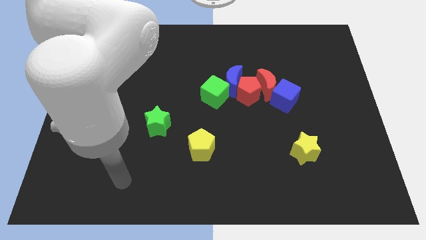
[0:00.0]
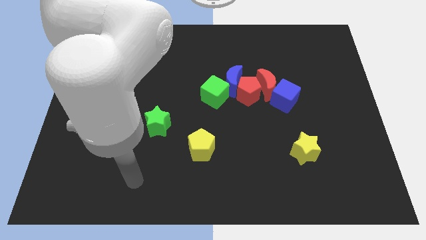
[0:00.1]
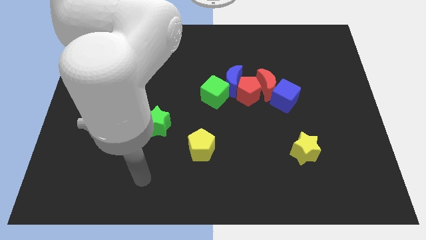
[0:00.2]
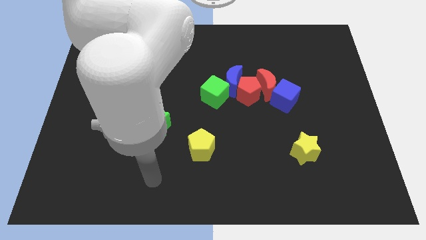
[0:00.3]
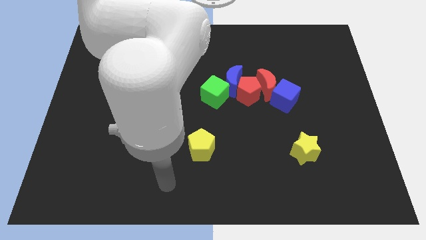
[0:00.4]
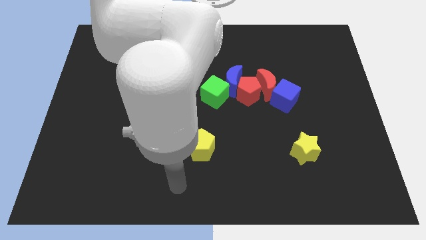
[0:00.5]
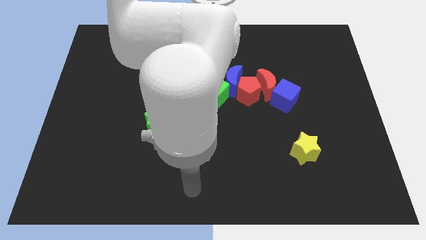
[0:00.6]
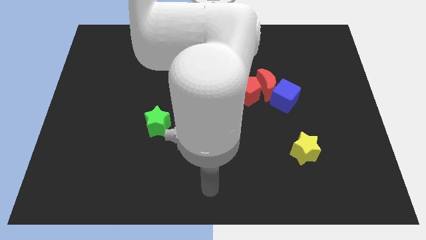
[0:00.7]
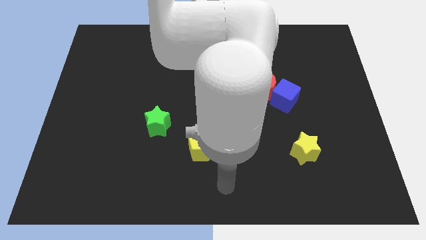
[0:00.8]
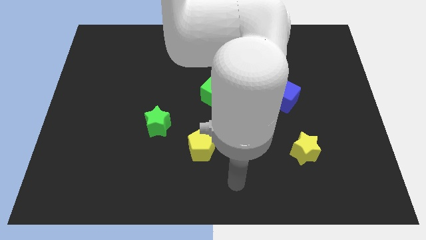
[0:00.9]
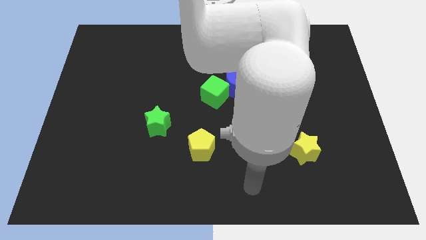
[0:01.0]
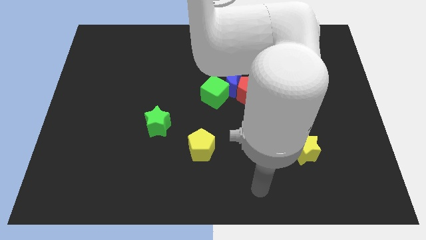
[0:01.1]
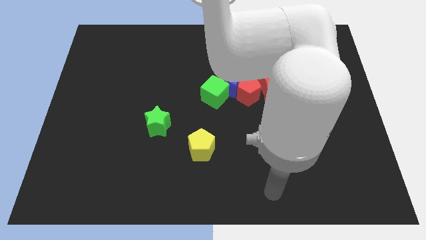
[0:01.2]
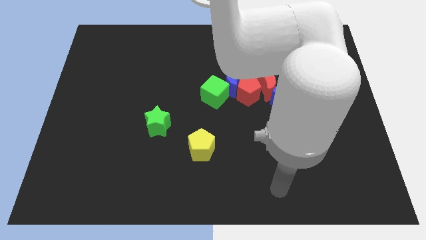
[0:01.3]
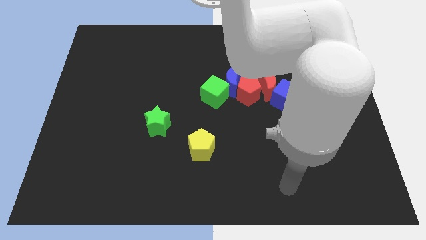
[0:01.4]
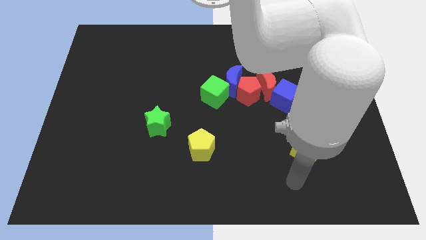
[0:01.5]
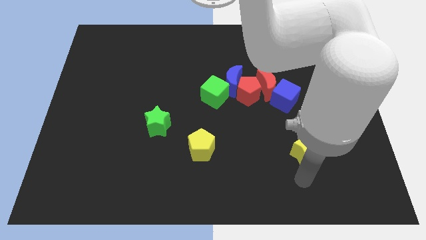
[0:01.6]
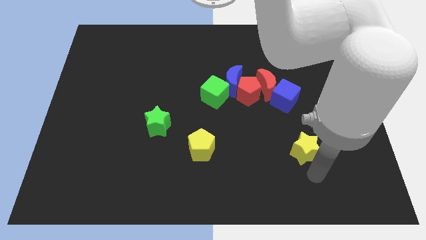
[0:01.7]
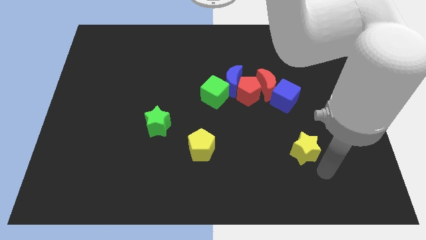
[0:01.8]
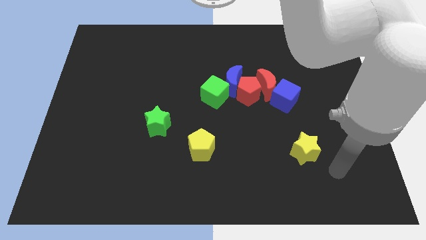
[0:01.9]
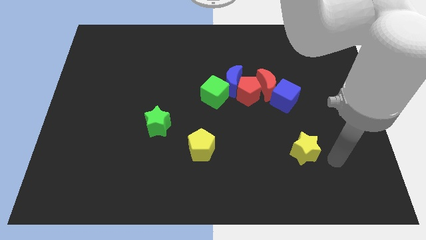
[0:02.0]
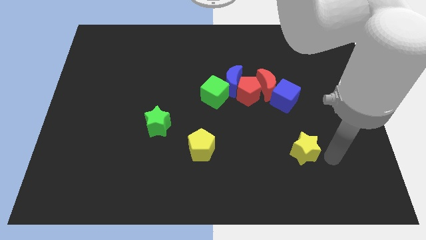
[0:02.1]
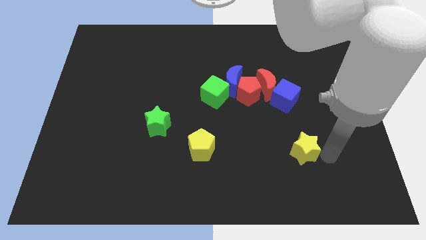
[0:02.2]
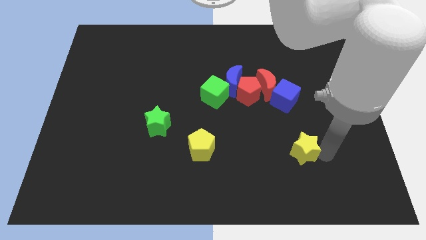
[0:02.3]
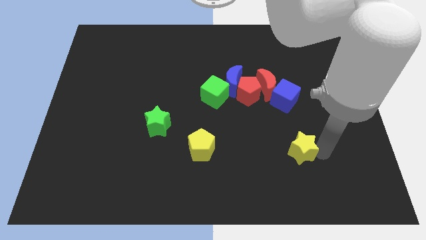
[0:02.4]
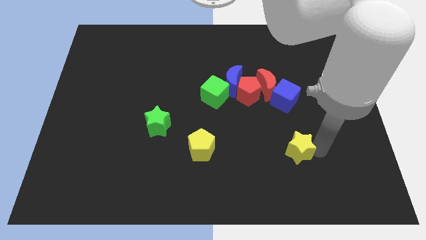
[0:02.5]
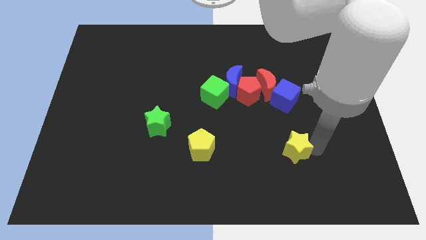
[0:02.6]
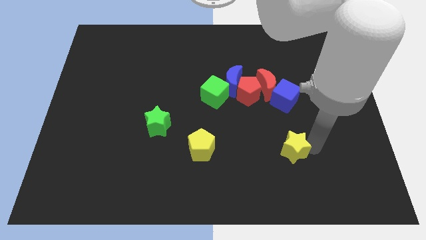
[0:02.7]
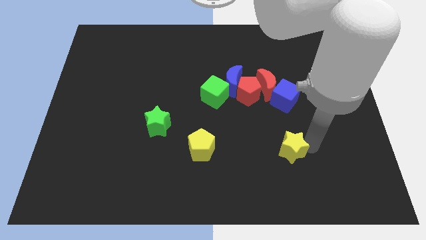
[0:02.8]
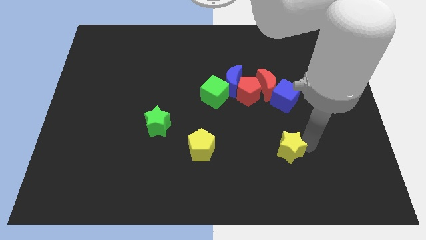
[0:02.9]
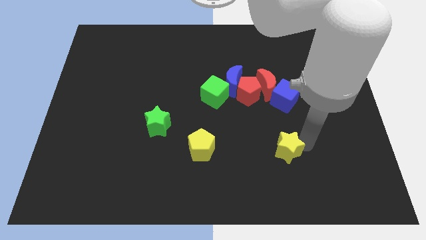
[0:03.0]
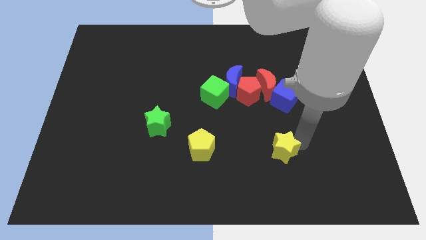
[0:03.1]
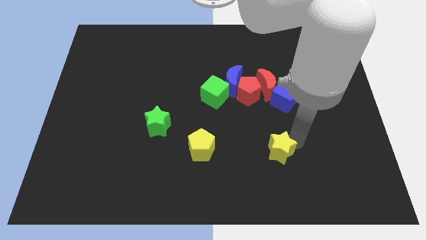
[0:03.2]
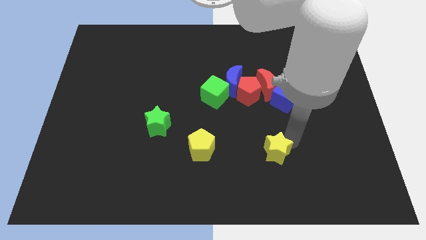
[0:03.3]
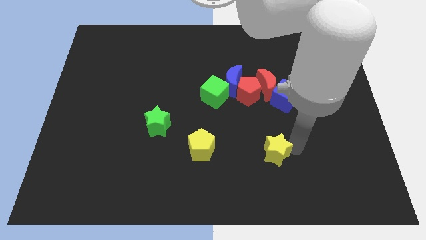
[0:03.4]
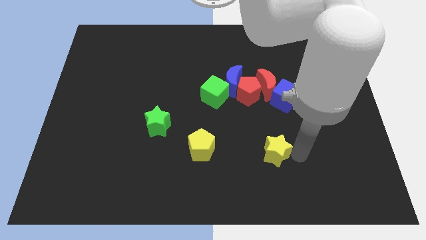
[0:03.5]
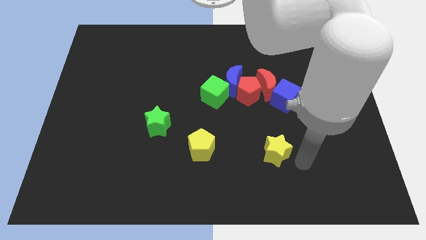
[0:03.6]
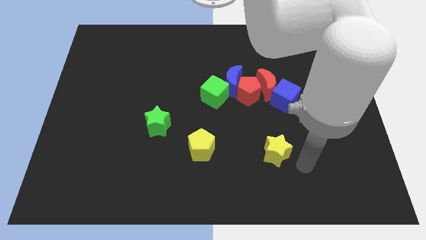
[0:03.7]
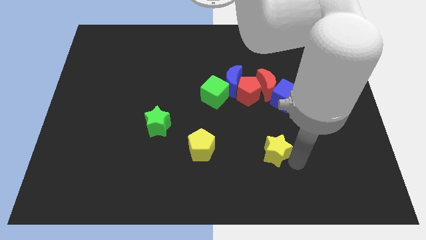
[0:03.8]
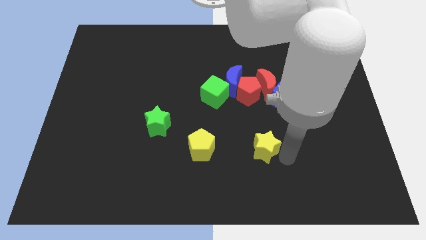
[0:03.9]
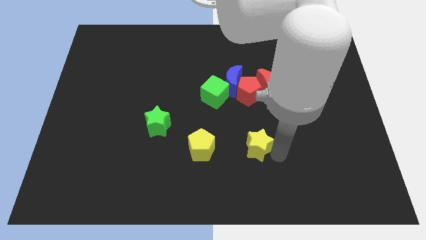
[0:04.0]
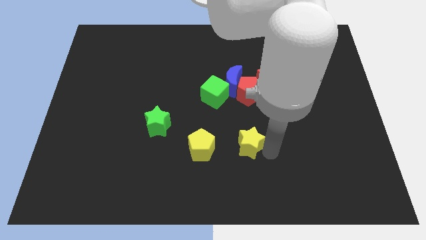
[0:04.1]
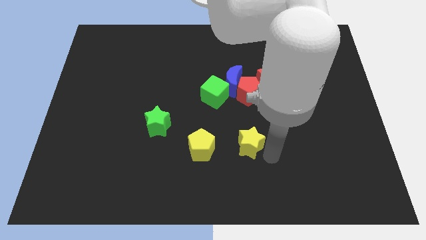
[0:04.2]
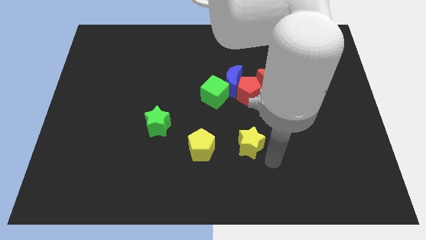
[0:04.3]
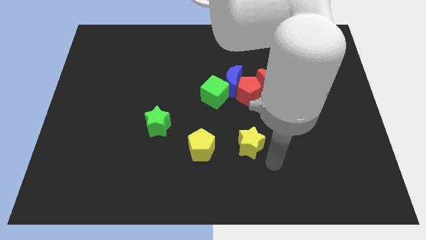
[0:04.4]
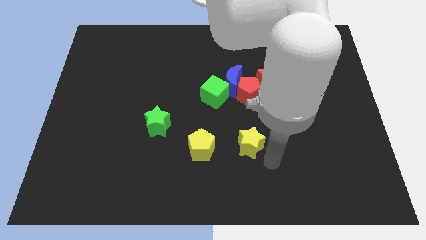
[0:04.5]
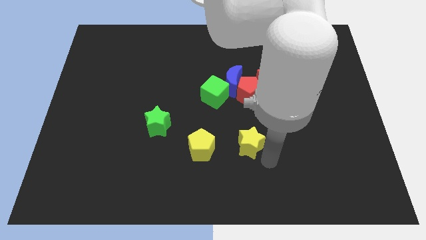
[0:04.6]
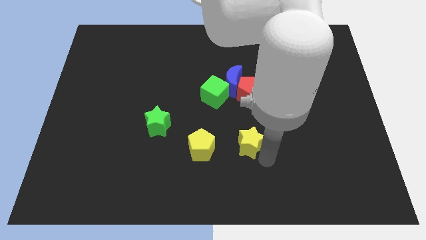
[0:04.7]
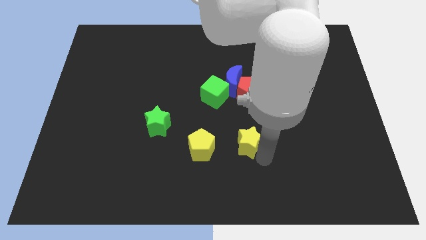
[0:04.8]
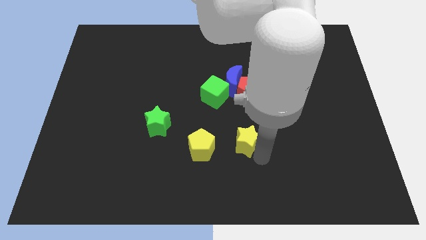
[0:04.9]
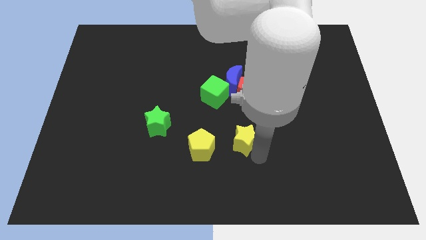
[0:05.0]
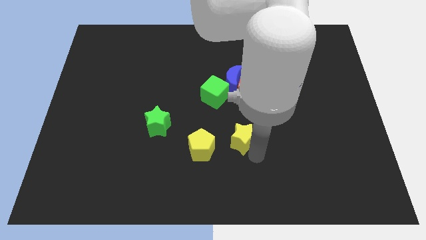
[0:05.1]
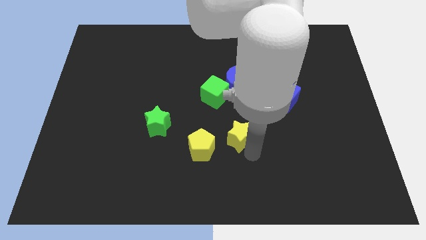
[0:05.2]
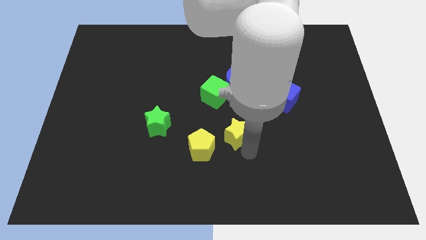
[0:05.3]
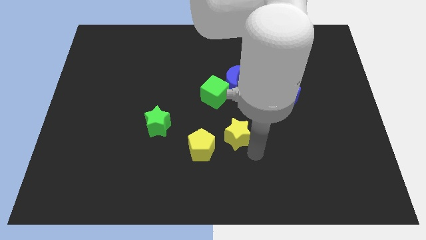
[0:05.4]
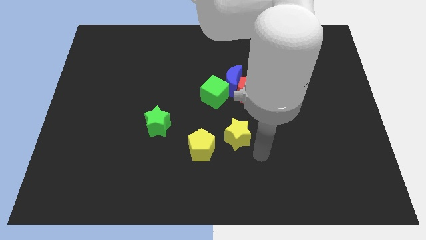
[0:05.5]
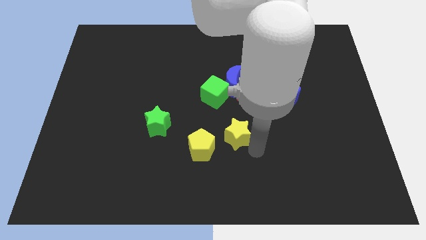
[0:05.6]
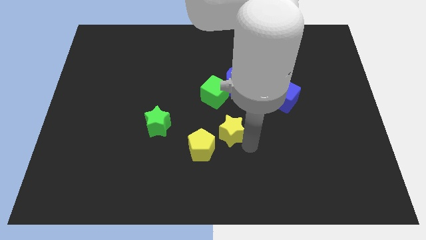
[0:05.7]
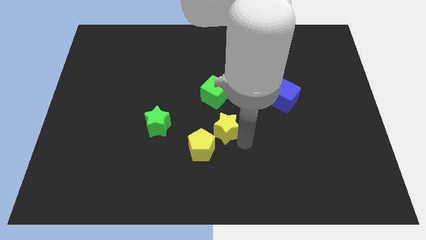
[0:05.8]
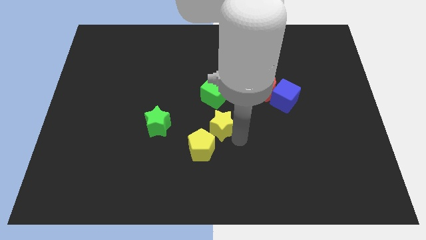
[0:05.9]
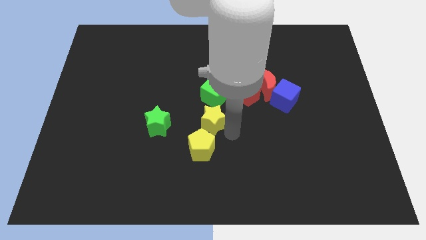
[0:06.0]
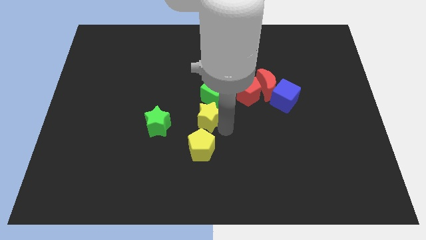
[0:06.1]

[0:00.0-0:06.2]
push the yellow star to the bottom left of the green cube

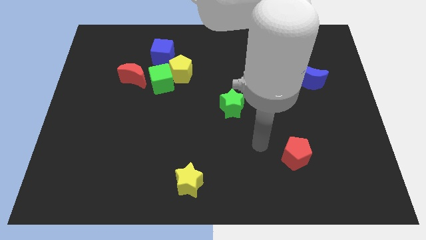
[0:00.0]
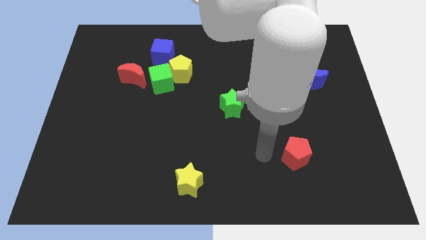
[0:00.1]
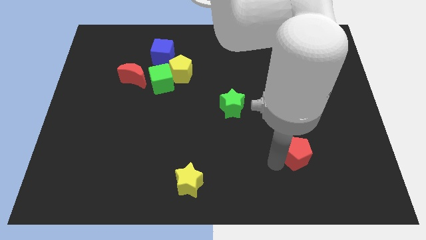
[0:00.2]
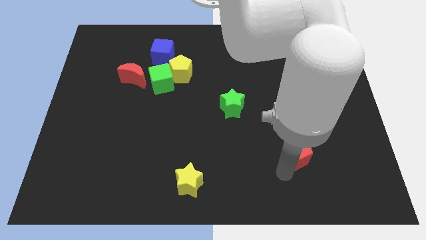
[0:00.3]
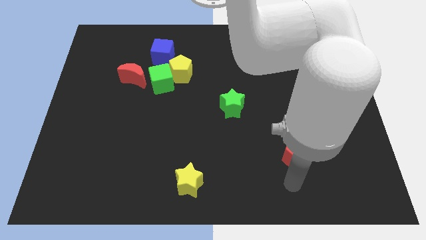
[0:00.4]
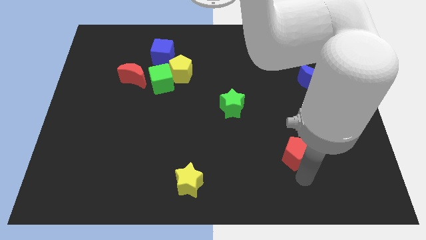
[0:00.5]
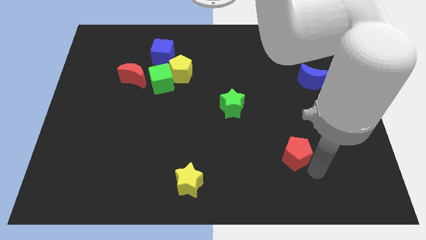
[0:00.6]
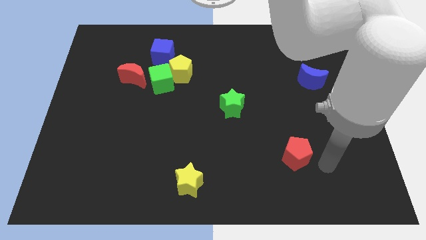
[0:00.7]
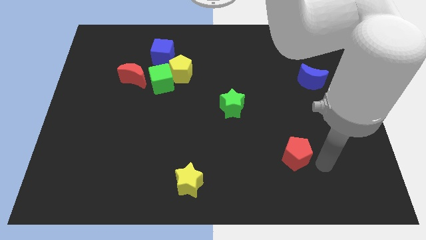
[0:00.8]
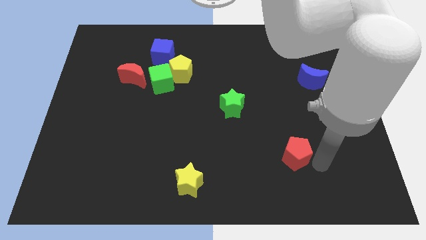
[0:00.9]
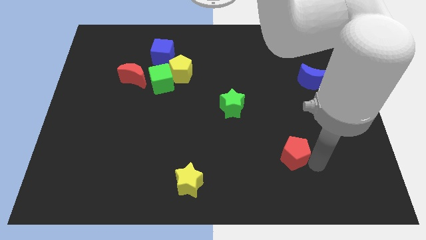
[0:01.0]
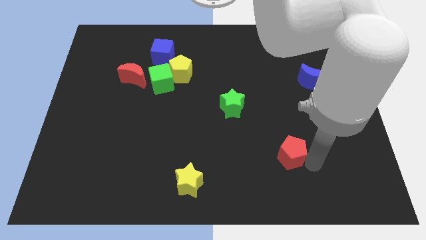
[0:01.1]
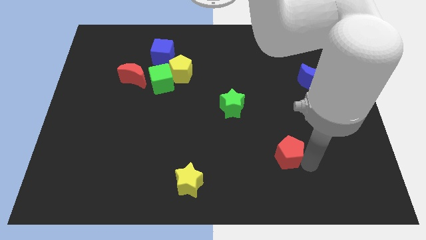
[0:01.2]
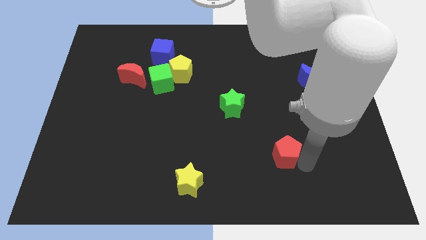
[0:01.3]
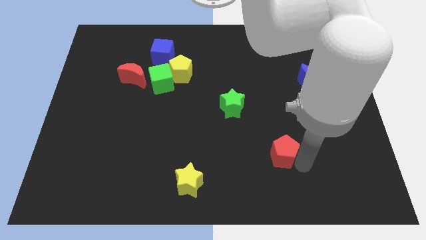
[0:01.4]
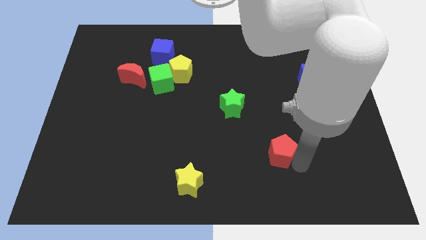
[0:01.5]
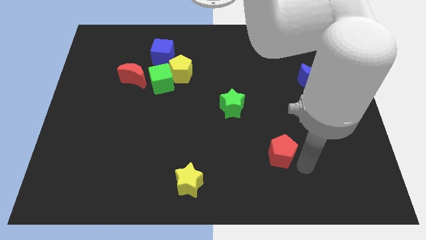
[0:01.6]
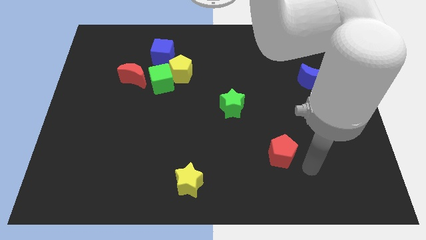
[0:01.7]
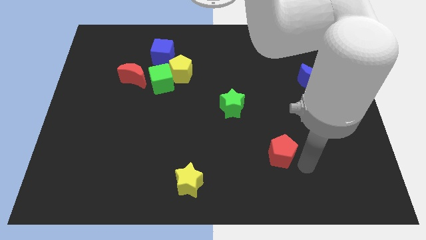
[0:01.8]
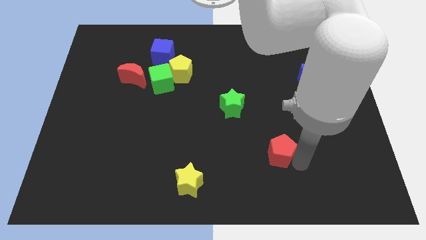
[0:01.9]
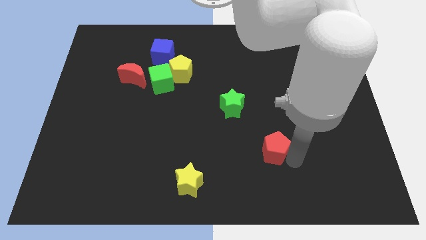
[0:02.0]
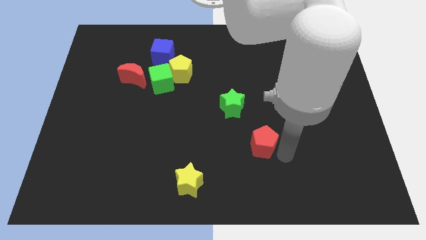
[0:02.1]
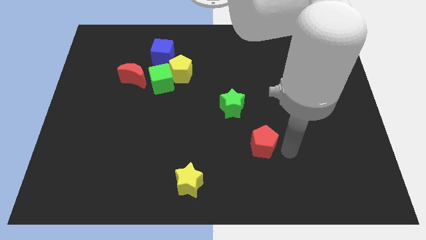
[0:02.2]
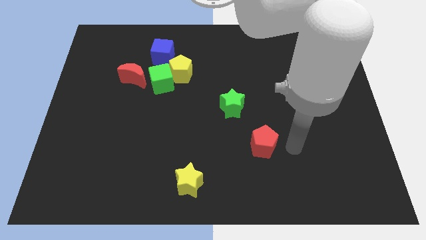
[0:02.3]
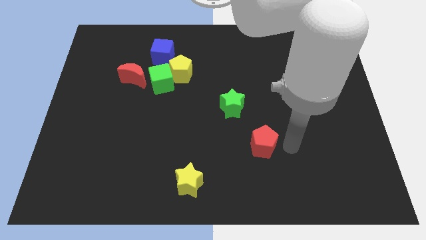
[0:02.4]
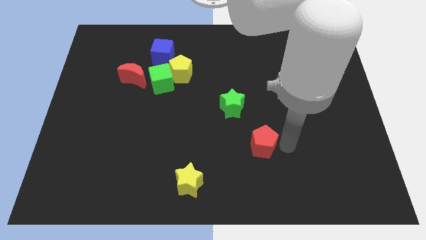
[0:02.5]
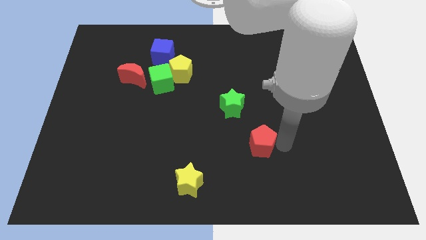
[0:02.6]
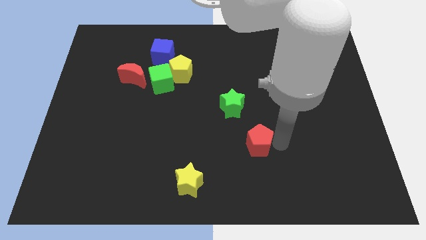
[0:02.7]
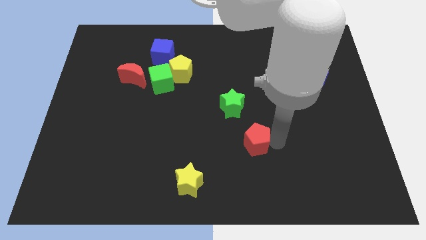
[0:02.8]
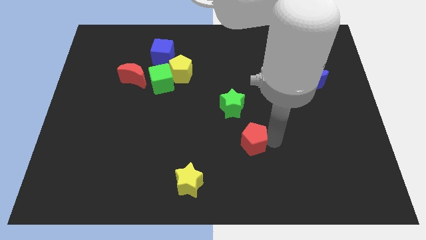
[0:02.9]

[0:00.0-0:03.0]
put the red pentagon to the bottom of the green star
